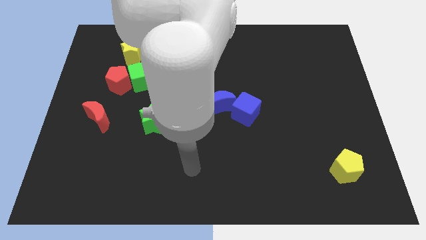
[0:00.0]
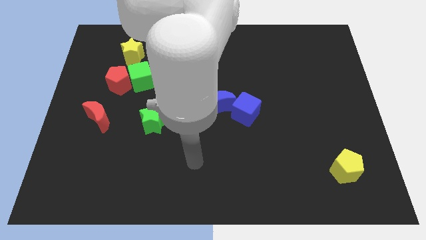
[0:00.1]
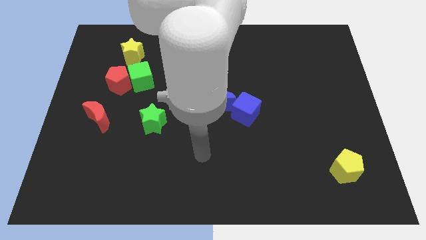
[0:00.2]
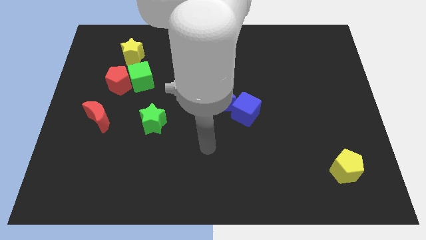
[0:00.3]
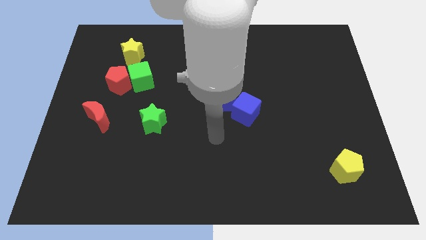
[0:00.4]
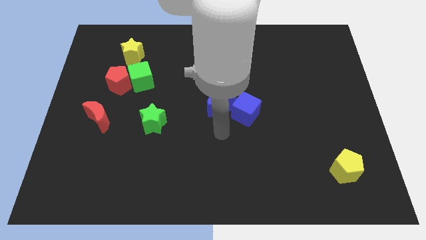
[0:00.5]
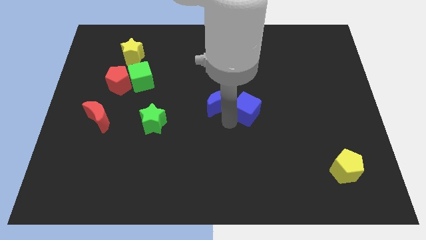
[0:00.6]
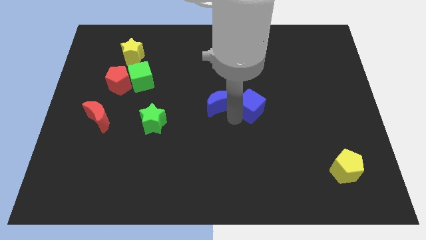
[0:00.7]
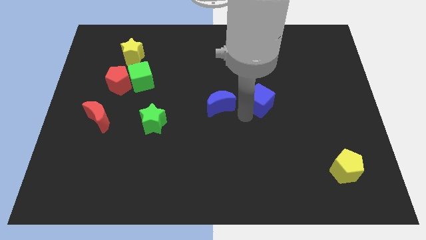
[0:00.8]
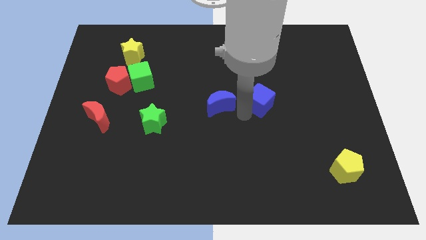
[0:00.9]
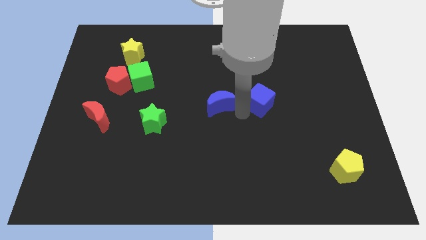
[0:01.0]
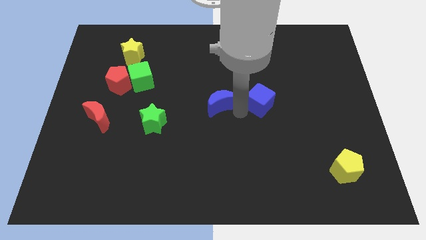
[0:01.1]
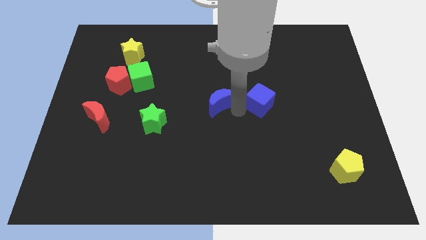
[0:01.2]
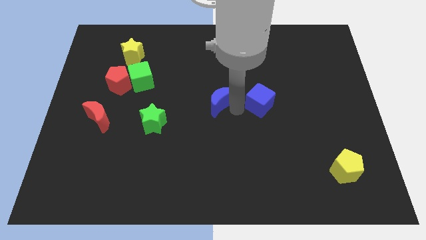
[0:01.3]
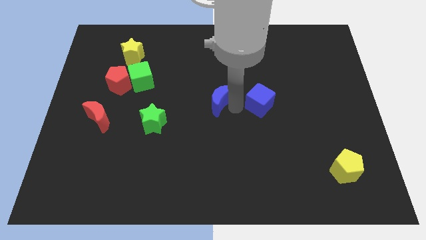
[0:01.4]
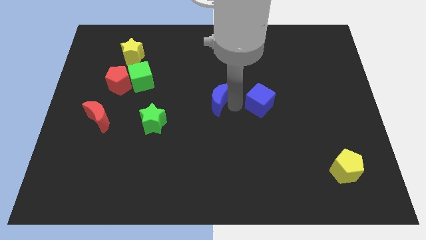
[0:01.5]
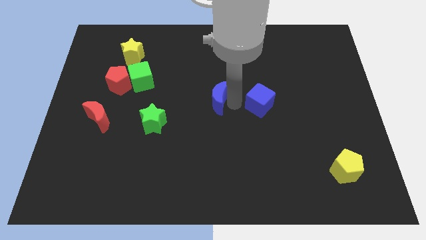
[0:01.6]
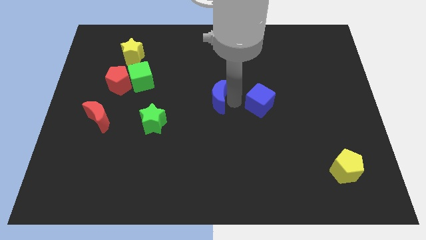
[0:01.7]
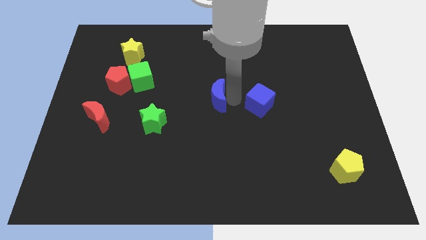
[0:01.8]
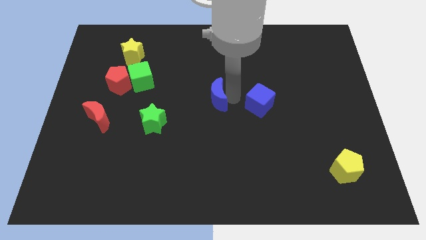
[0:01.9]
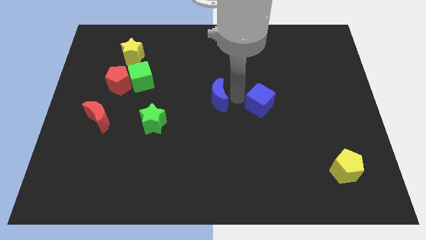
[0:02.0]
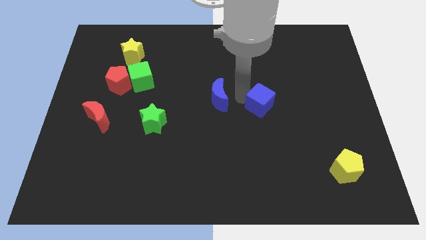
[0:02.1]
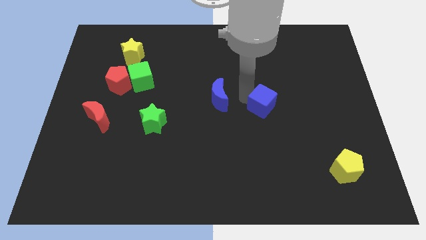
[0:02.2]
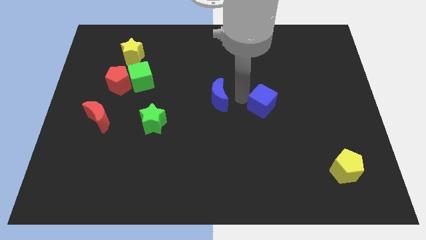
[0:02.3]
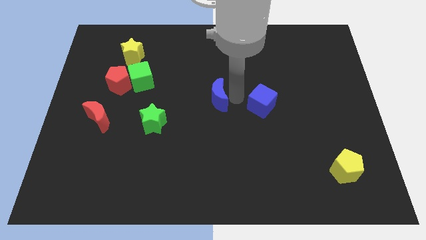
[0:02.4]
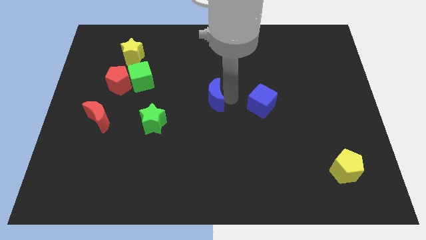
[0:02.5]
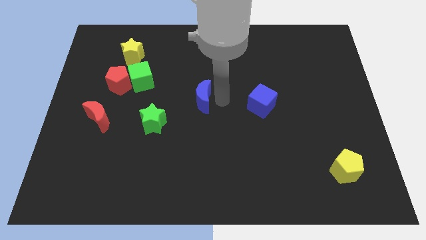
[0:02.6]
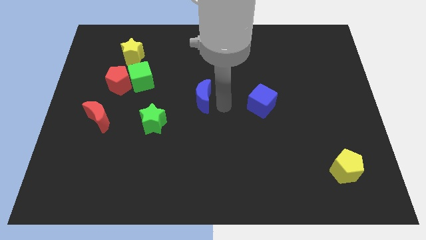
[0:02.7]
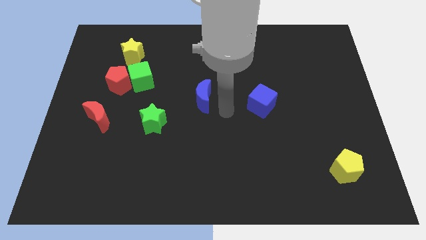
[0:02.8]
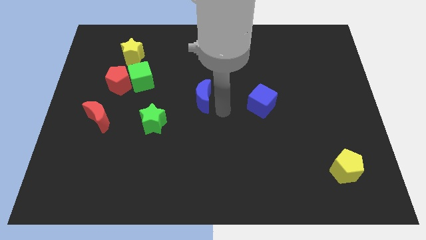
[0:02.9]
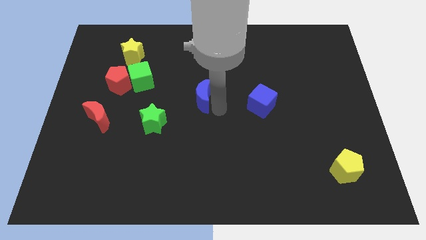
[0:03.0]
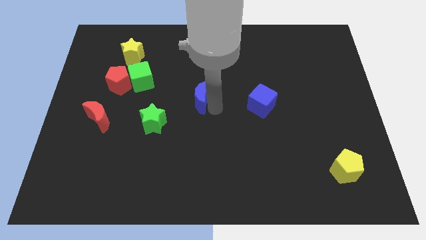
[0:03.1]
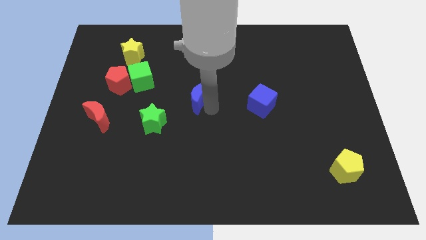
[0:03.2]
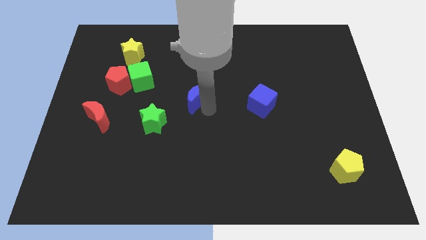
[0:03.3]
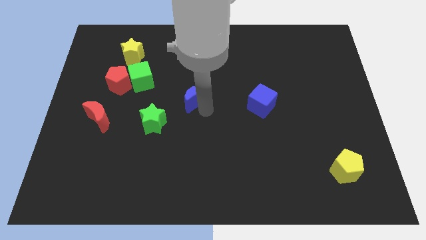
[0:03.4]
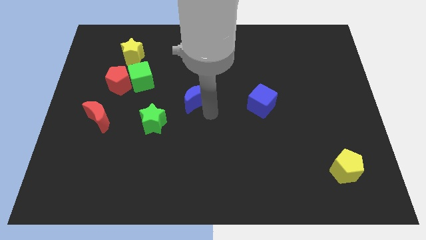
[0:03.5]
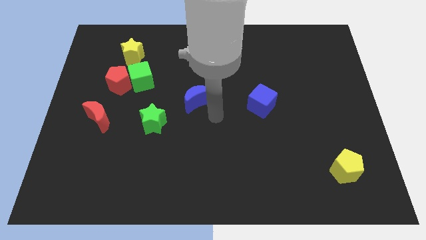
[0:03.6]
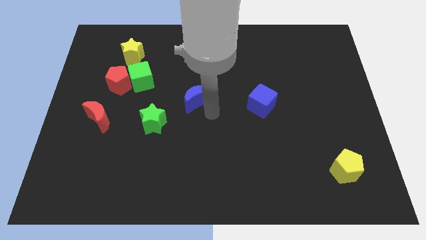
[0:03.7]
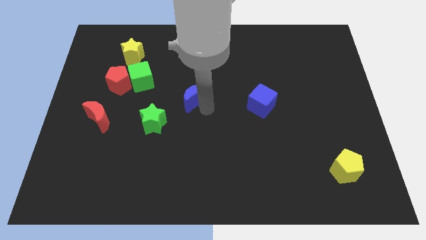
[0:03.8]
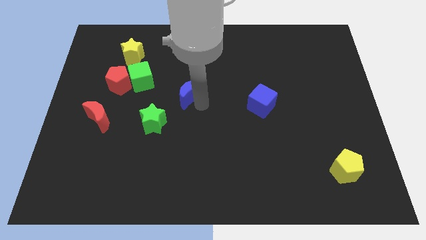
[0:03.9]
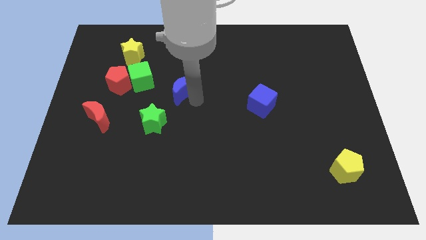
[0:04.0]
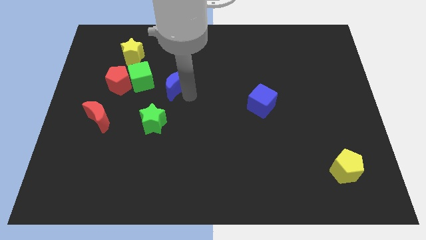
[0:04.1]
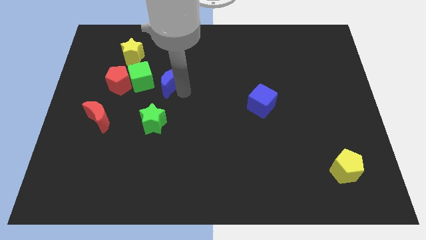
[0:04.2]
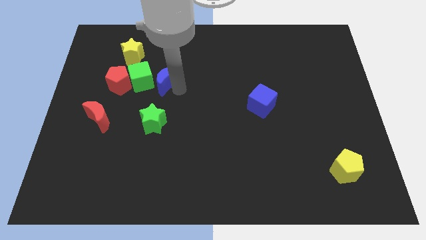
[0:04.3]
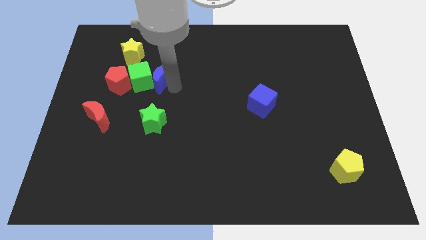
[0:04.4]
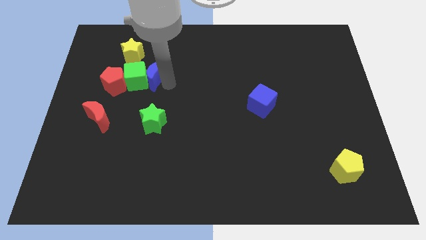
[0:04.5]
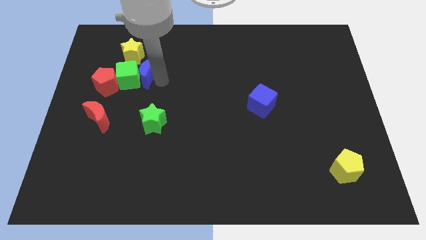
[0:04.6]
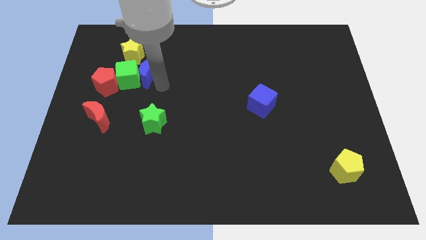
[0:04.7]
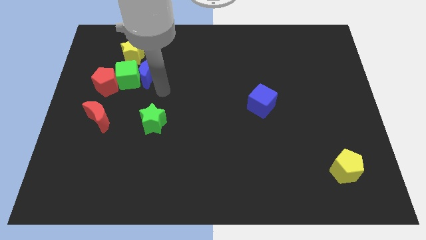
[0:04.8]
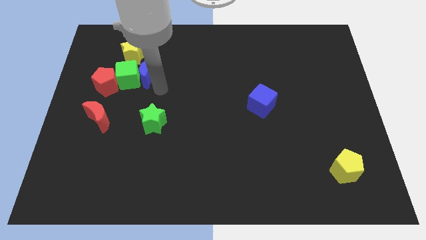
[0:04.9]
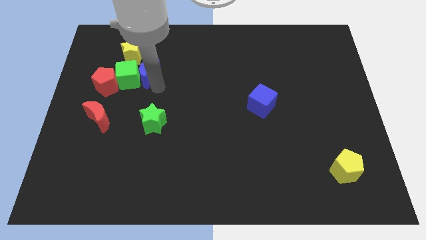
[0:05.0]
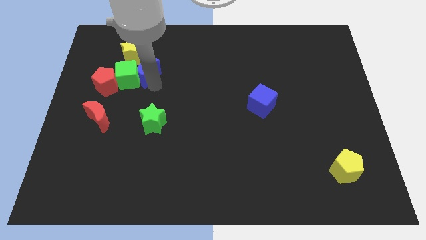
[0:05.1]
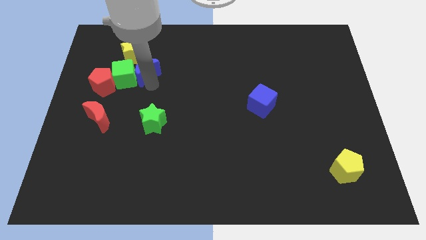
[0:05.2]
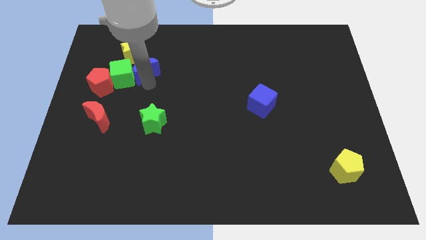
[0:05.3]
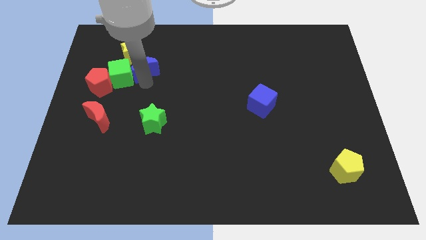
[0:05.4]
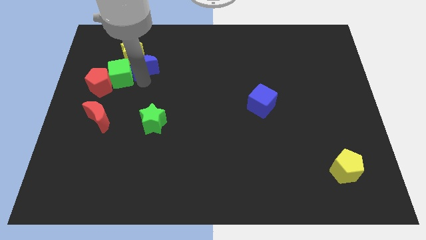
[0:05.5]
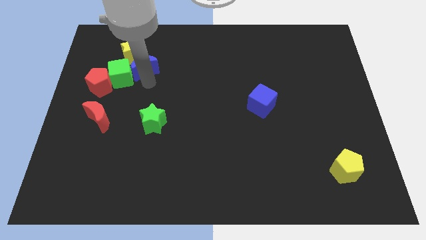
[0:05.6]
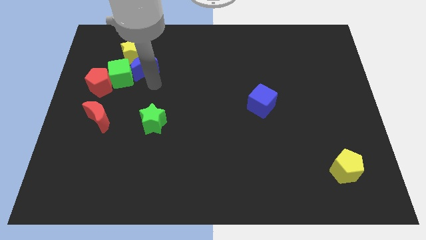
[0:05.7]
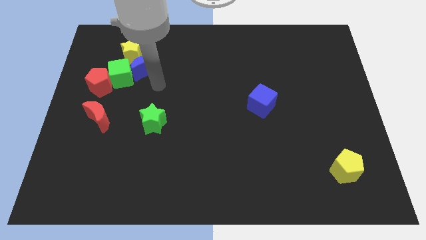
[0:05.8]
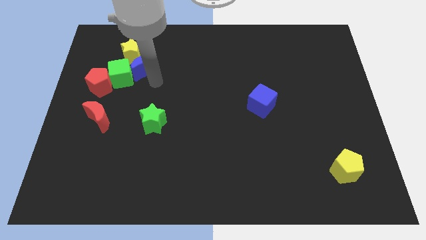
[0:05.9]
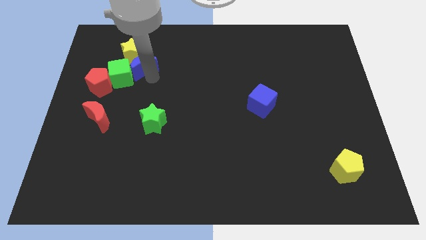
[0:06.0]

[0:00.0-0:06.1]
slide the blue moon next to the yellow star
